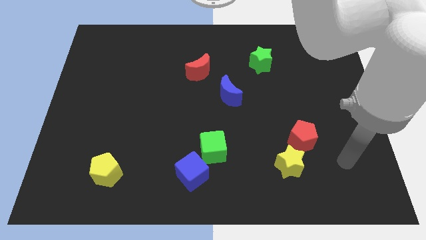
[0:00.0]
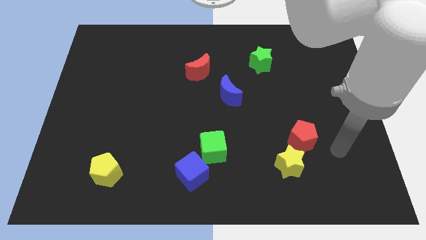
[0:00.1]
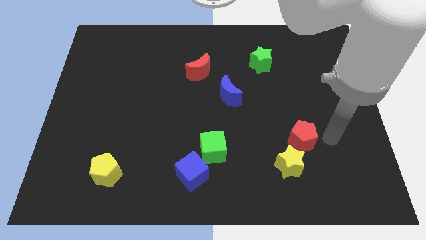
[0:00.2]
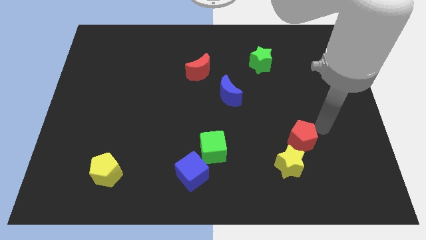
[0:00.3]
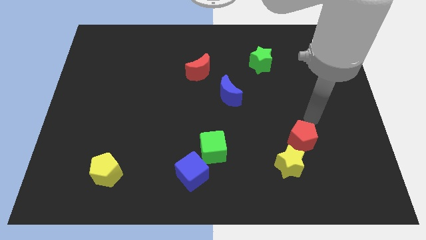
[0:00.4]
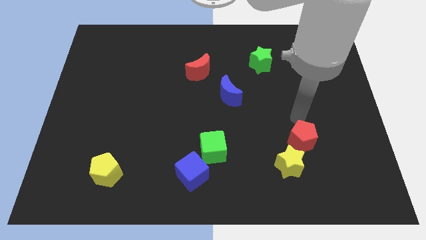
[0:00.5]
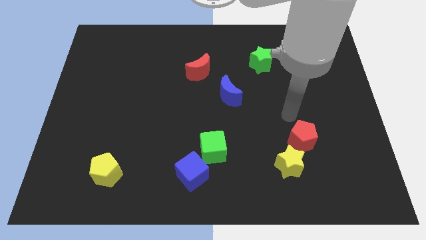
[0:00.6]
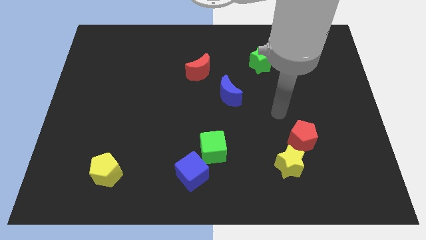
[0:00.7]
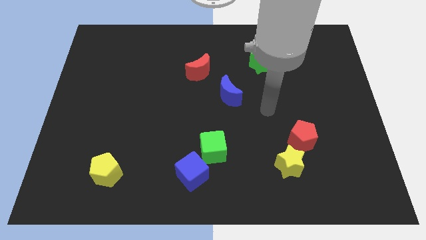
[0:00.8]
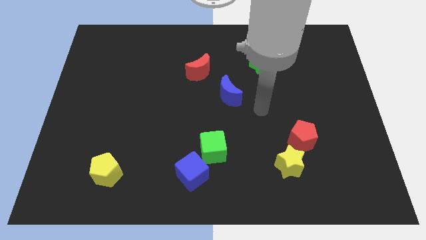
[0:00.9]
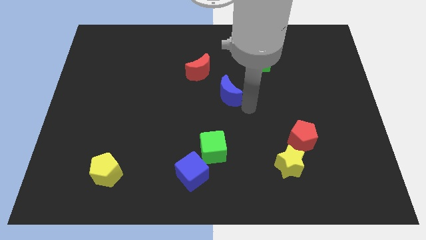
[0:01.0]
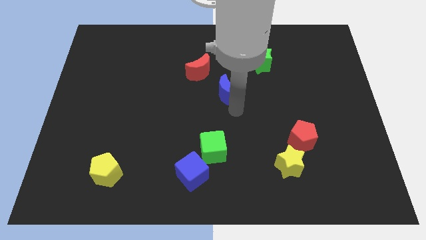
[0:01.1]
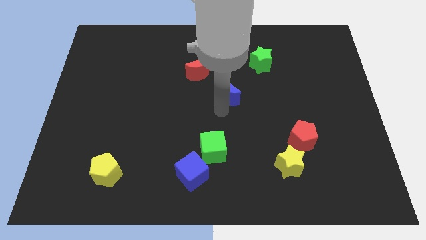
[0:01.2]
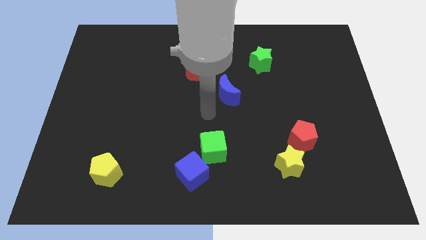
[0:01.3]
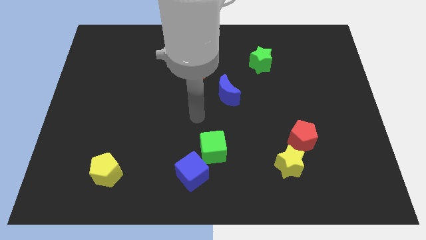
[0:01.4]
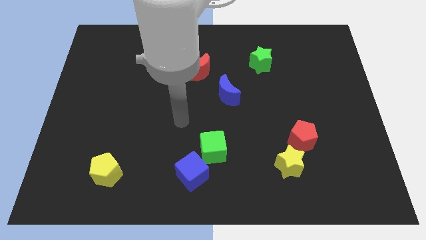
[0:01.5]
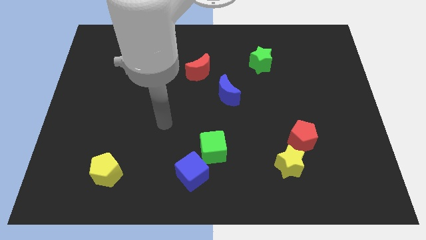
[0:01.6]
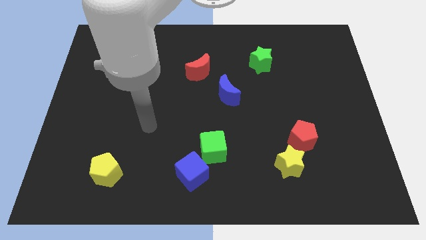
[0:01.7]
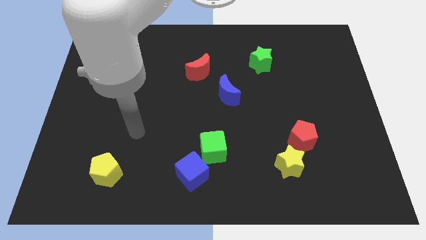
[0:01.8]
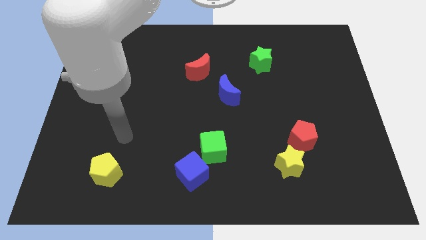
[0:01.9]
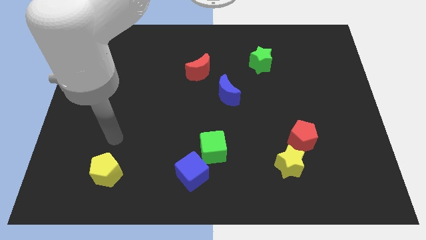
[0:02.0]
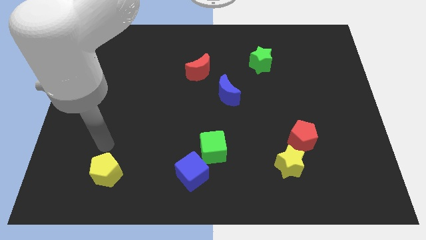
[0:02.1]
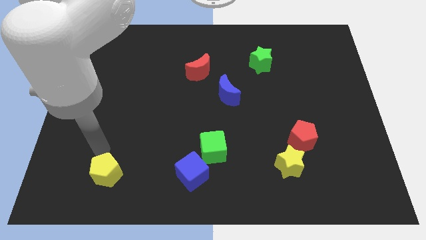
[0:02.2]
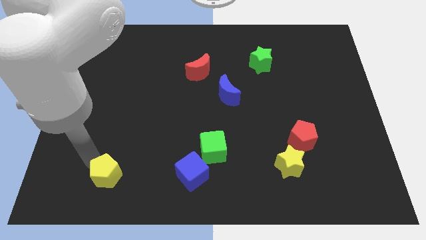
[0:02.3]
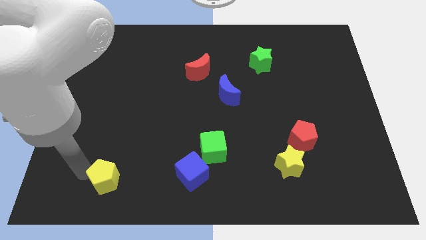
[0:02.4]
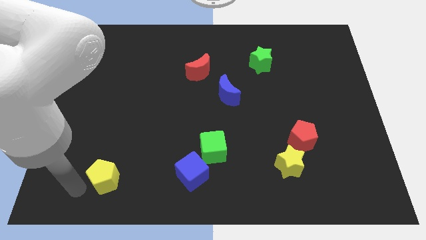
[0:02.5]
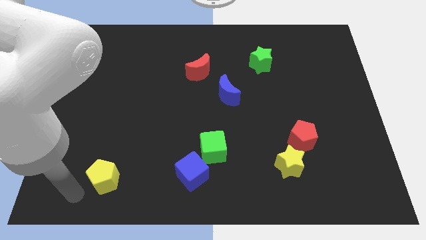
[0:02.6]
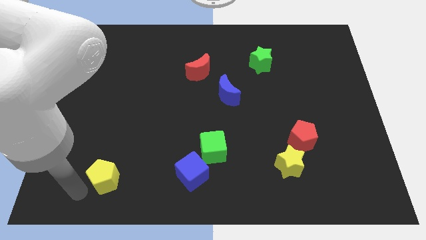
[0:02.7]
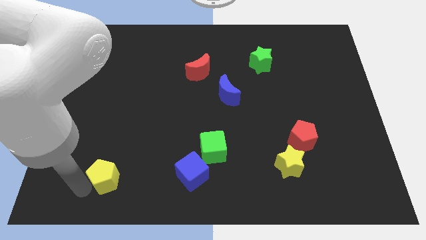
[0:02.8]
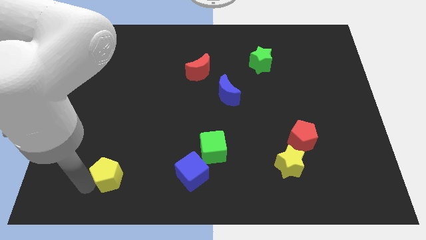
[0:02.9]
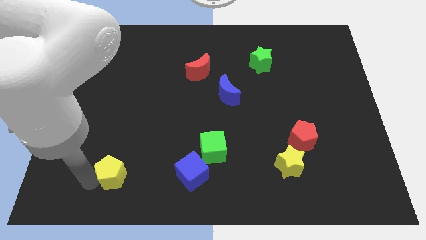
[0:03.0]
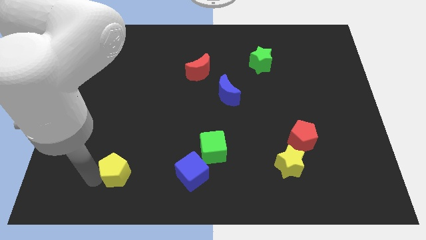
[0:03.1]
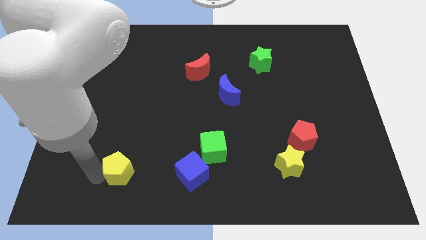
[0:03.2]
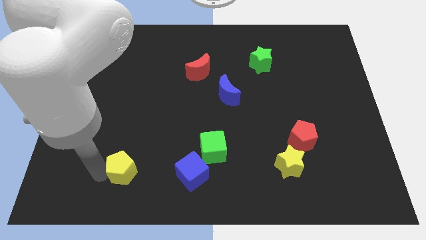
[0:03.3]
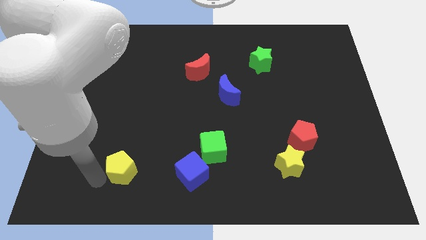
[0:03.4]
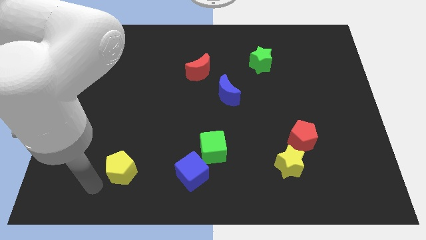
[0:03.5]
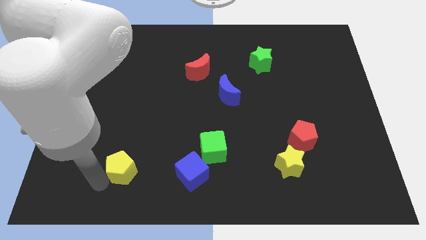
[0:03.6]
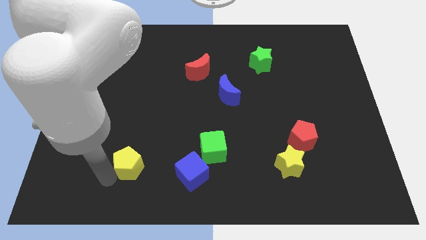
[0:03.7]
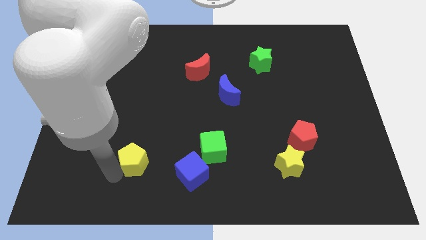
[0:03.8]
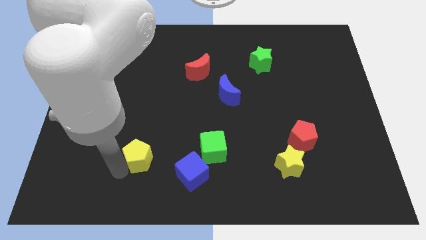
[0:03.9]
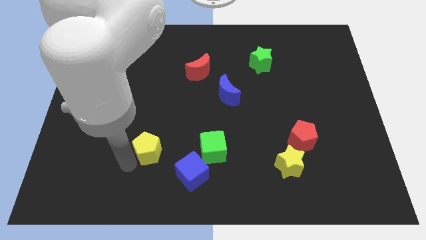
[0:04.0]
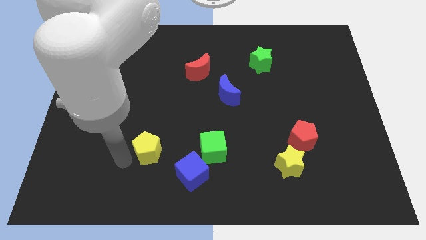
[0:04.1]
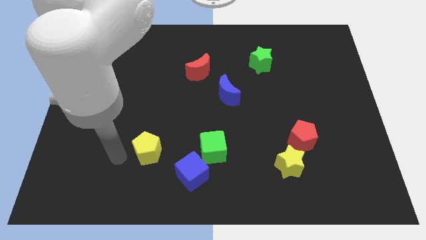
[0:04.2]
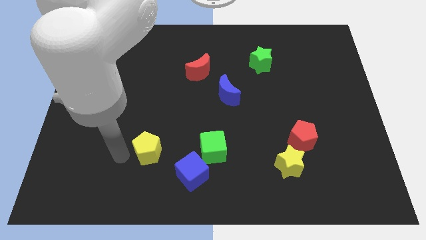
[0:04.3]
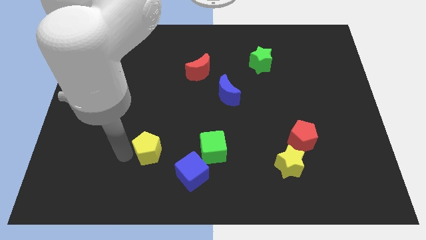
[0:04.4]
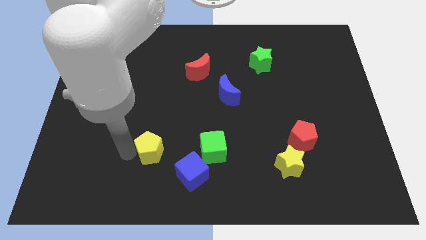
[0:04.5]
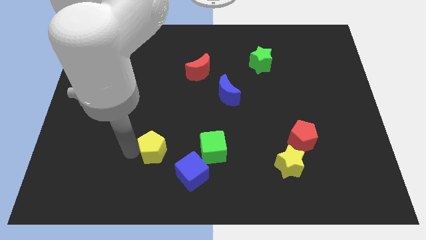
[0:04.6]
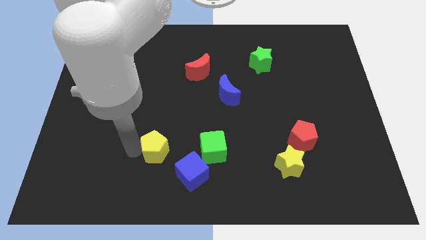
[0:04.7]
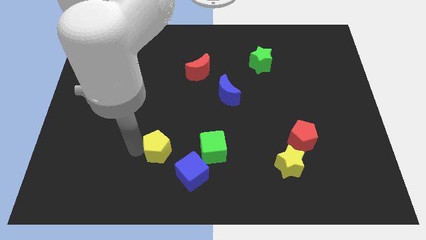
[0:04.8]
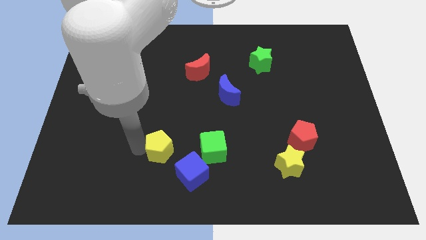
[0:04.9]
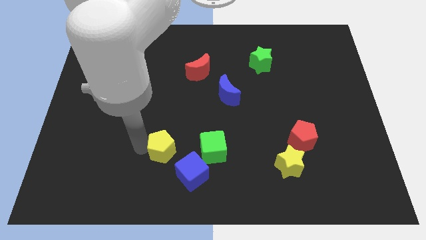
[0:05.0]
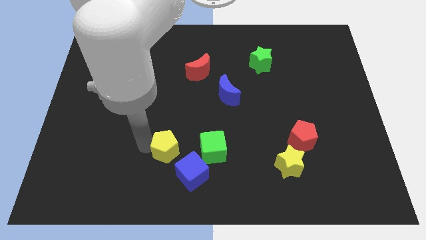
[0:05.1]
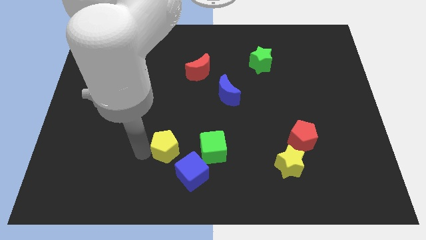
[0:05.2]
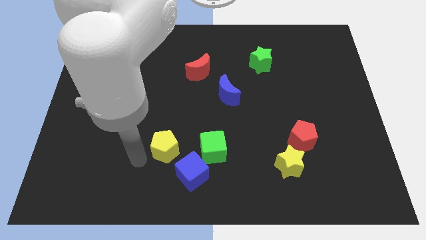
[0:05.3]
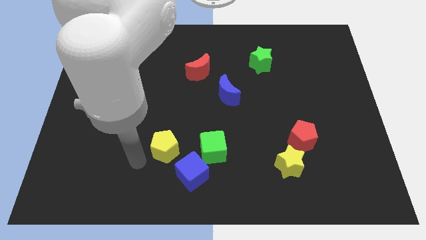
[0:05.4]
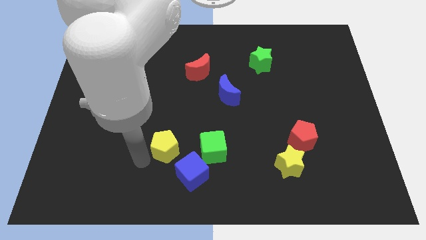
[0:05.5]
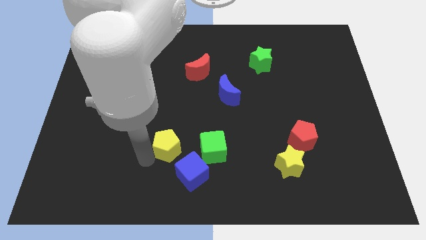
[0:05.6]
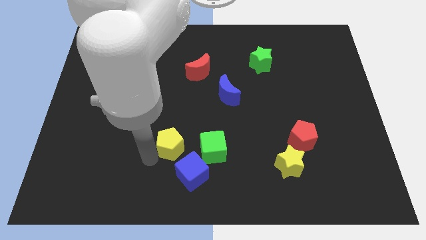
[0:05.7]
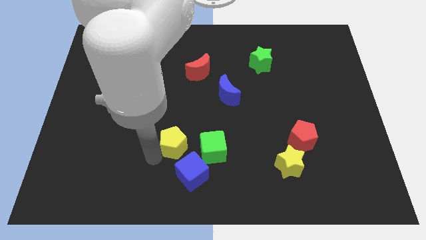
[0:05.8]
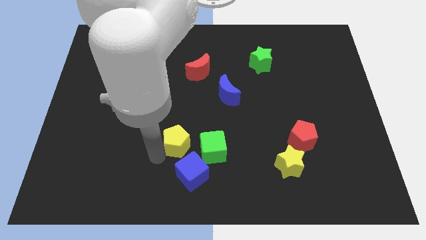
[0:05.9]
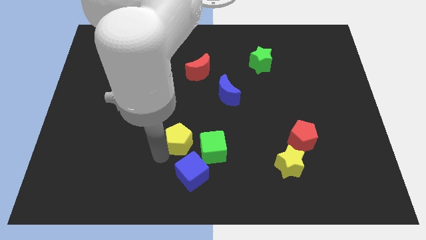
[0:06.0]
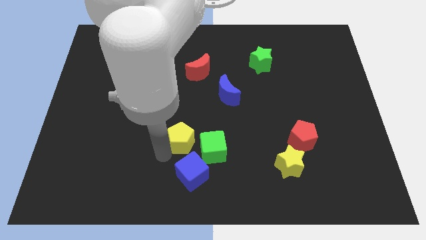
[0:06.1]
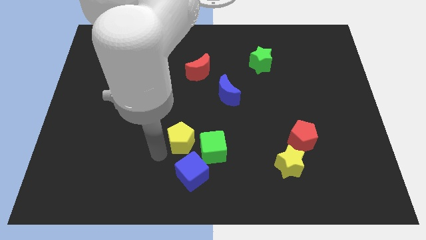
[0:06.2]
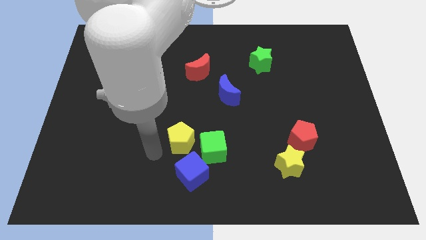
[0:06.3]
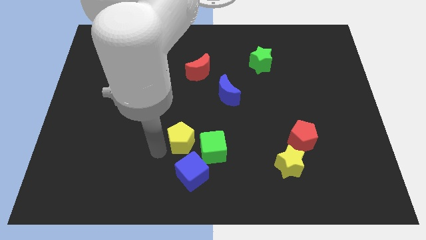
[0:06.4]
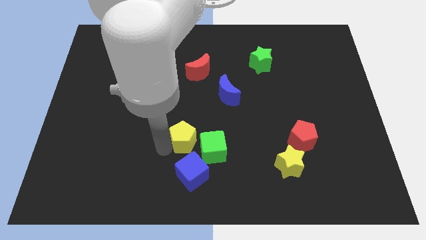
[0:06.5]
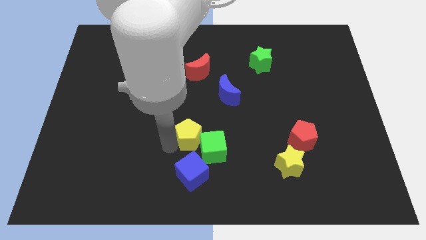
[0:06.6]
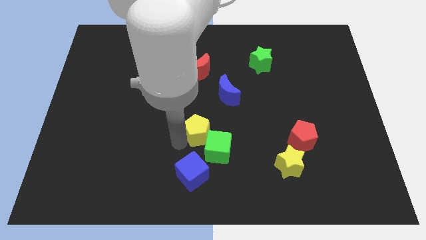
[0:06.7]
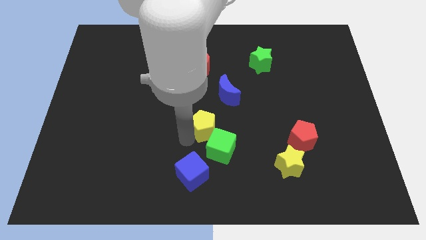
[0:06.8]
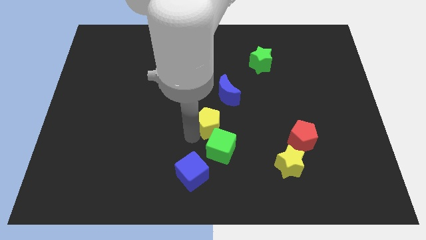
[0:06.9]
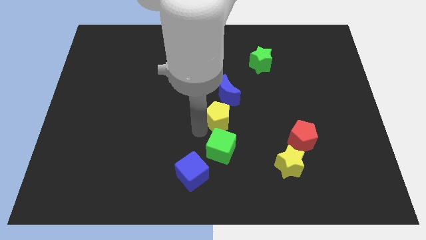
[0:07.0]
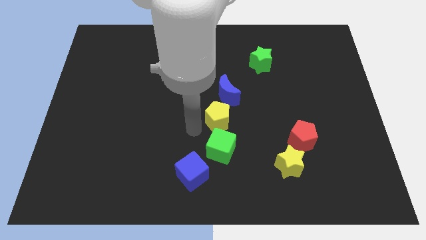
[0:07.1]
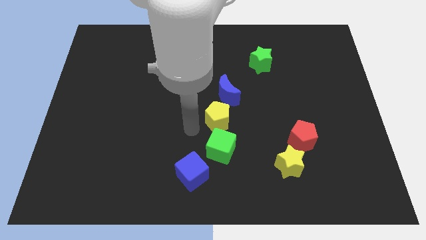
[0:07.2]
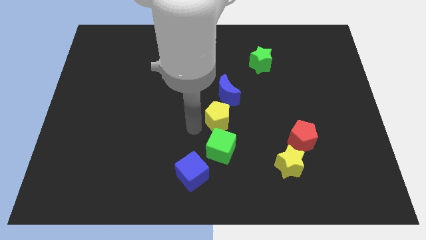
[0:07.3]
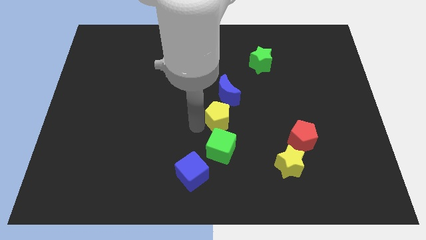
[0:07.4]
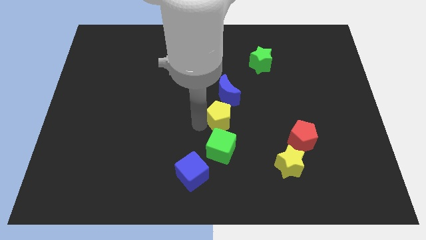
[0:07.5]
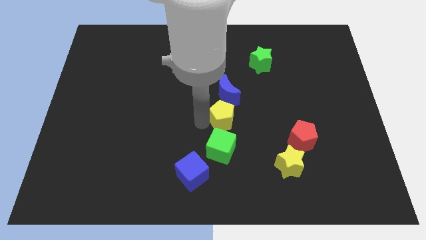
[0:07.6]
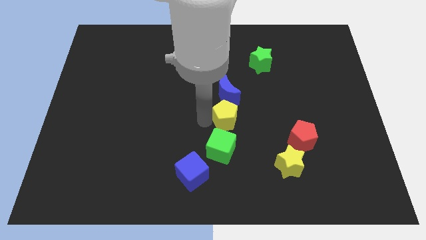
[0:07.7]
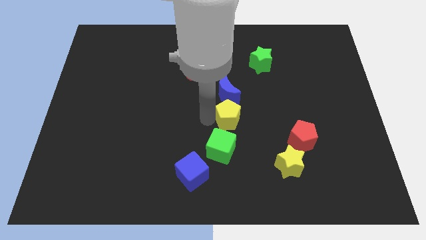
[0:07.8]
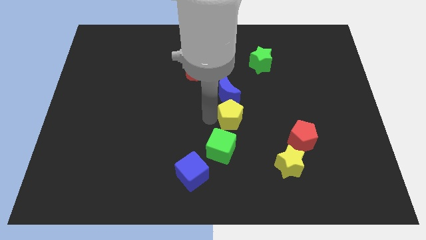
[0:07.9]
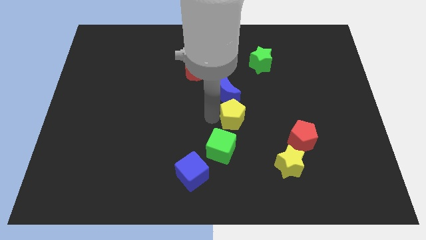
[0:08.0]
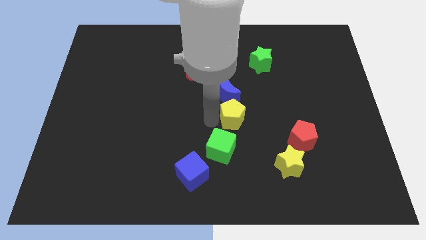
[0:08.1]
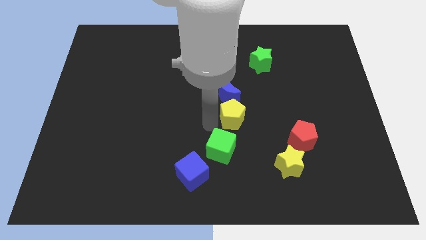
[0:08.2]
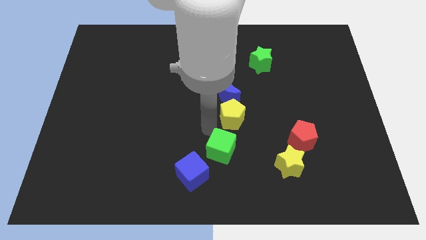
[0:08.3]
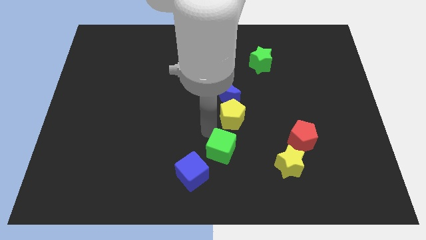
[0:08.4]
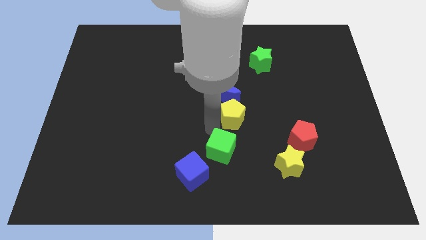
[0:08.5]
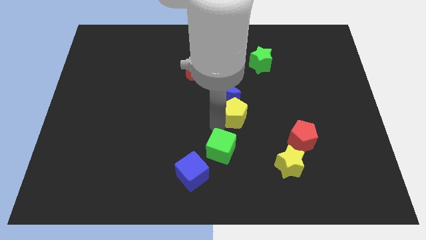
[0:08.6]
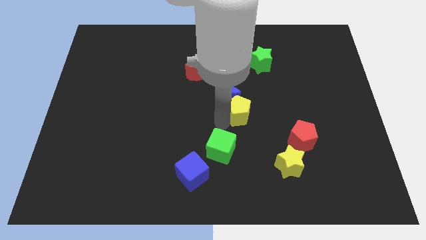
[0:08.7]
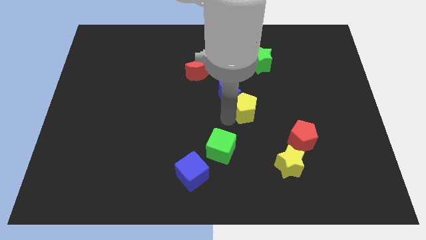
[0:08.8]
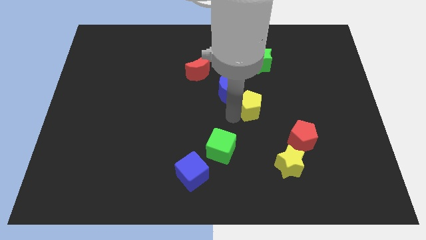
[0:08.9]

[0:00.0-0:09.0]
slide the yellow pentagon to the right side of the blue moon
